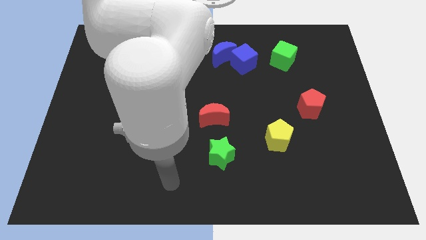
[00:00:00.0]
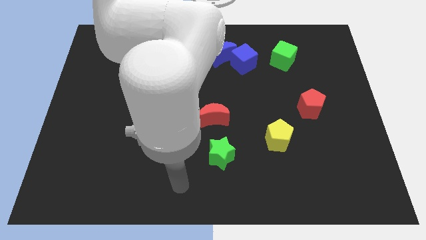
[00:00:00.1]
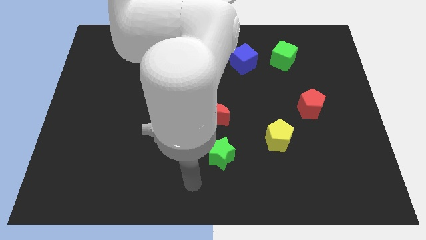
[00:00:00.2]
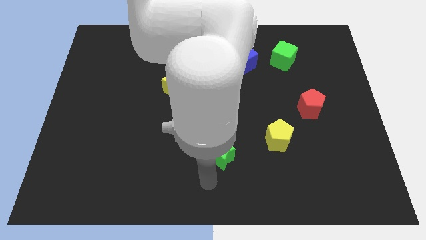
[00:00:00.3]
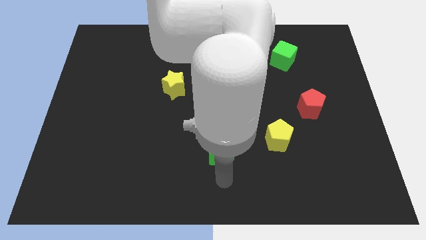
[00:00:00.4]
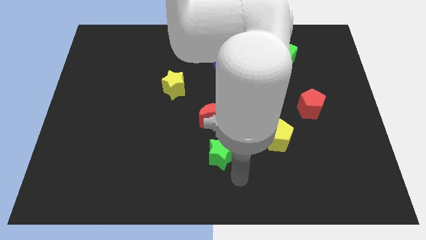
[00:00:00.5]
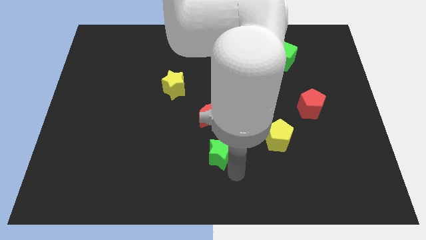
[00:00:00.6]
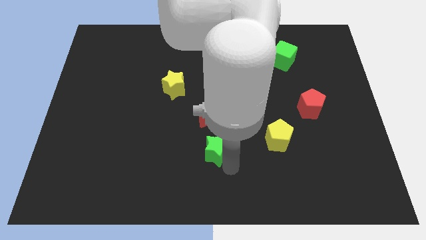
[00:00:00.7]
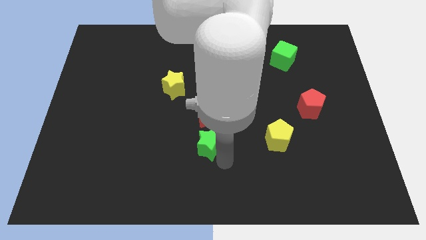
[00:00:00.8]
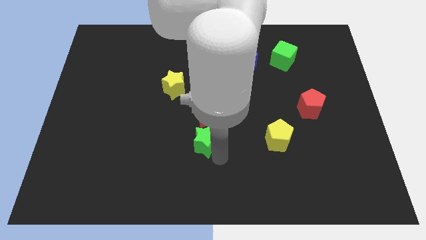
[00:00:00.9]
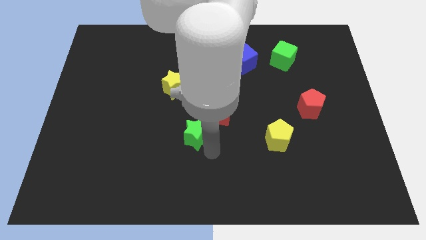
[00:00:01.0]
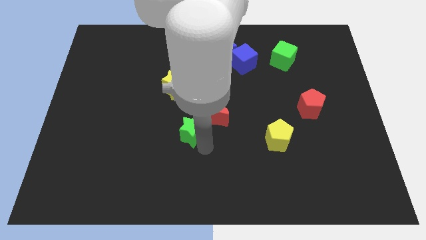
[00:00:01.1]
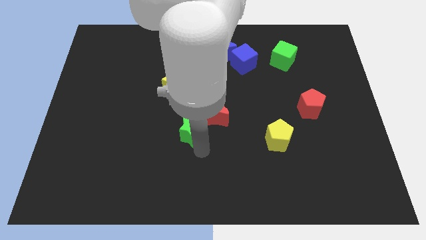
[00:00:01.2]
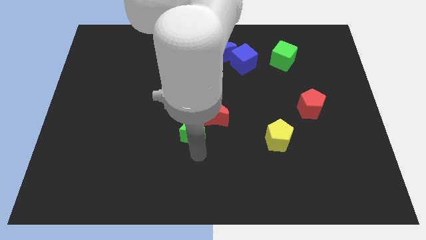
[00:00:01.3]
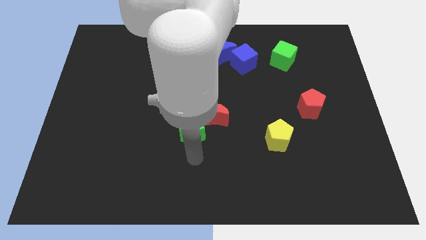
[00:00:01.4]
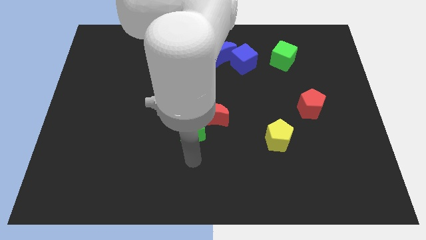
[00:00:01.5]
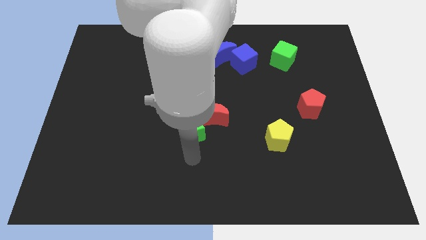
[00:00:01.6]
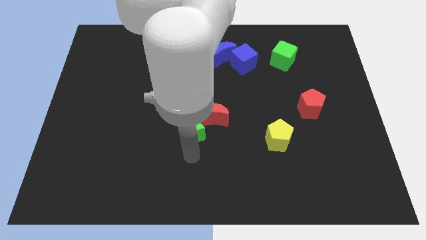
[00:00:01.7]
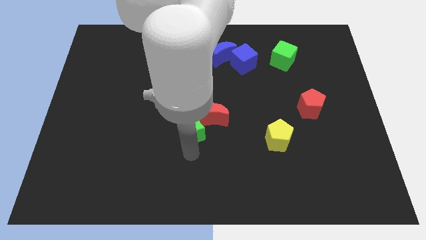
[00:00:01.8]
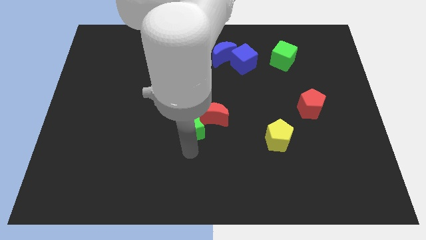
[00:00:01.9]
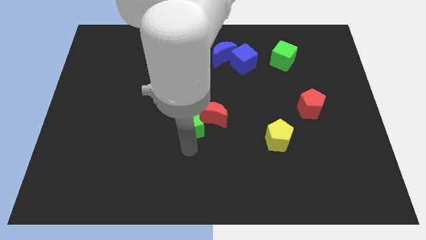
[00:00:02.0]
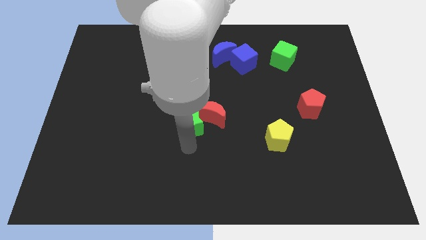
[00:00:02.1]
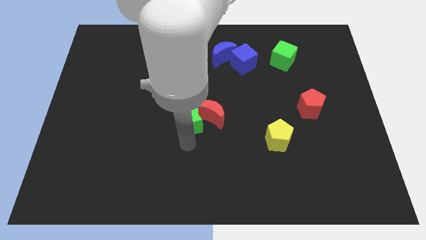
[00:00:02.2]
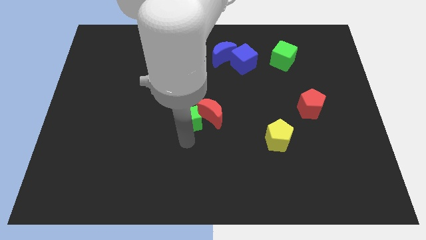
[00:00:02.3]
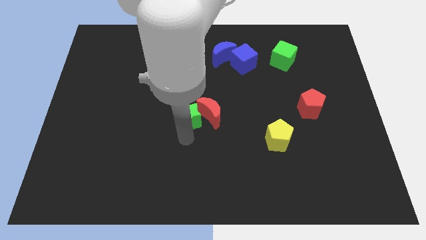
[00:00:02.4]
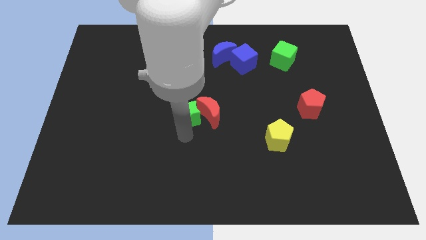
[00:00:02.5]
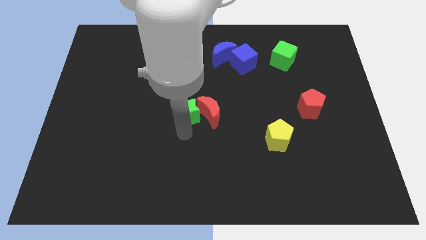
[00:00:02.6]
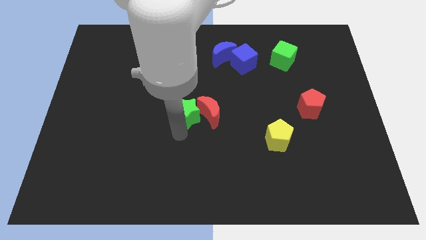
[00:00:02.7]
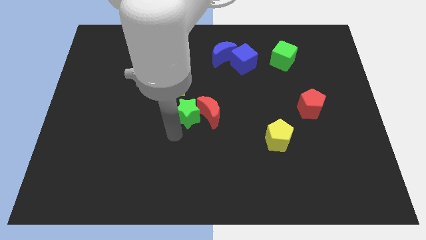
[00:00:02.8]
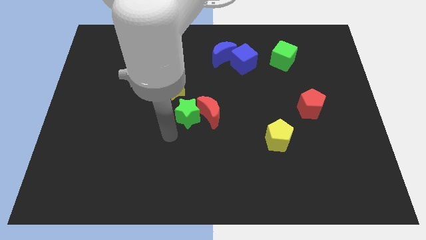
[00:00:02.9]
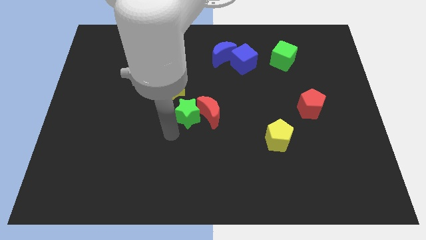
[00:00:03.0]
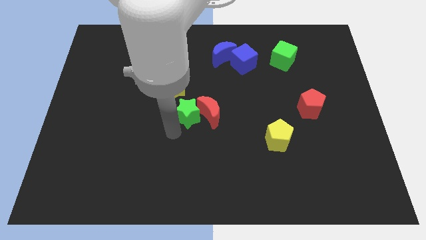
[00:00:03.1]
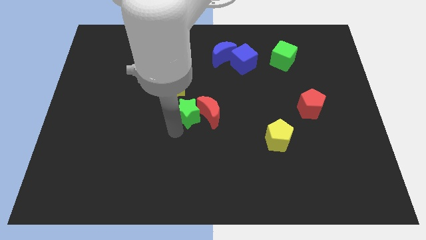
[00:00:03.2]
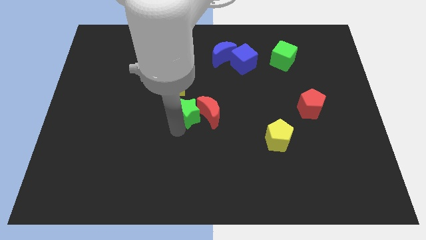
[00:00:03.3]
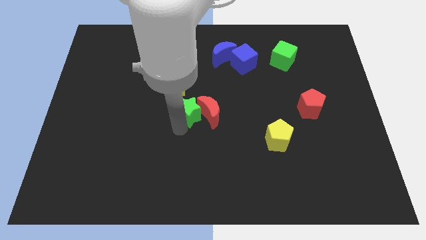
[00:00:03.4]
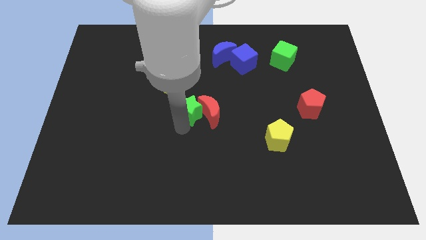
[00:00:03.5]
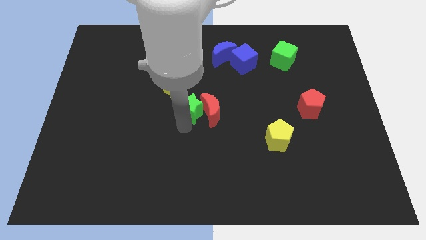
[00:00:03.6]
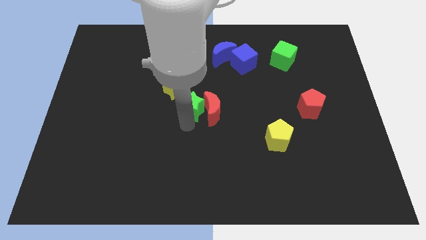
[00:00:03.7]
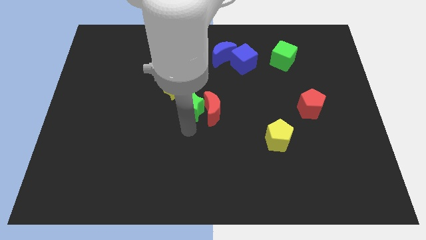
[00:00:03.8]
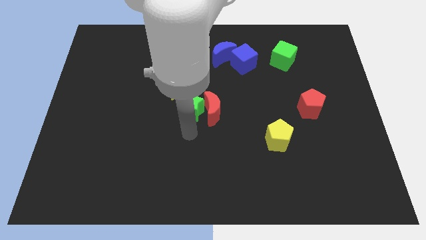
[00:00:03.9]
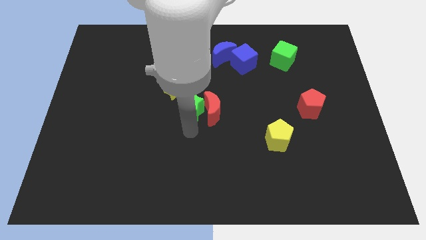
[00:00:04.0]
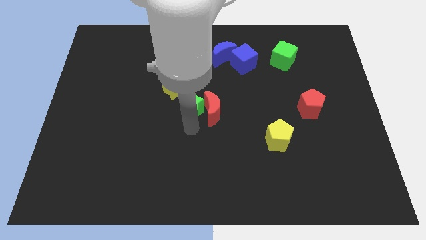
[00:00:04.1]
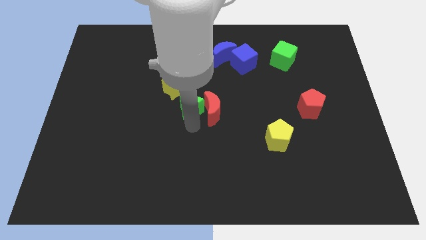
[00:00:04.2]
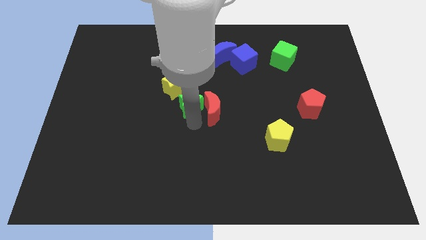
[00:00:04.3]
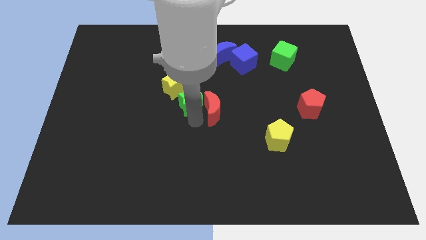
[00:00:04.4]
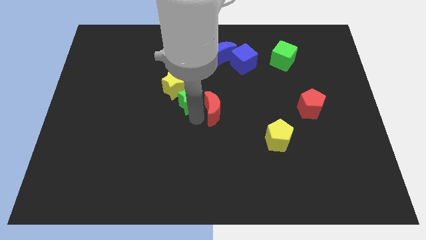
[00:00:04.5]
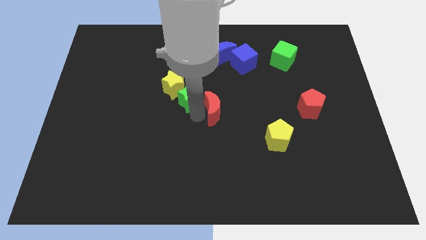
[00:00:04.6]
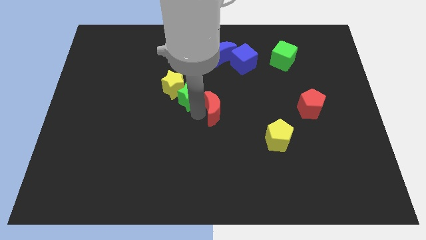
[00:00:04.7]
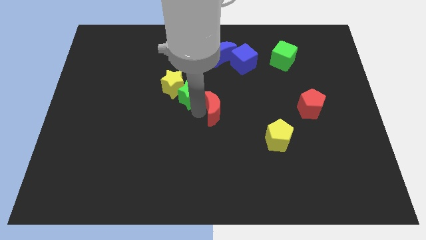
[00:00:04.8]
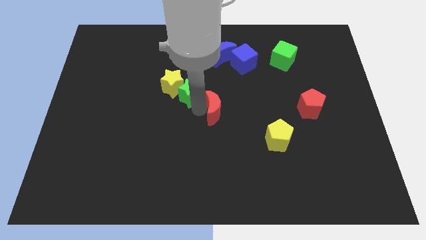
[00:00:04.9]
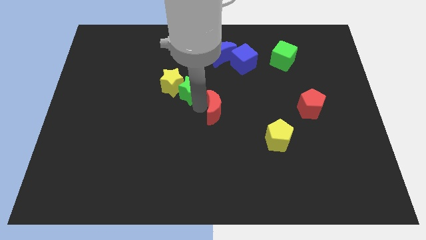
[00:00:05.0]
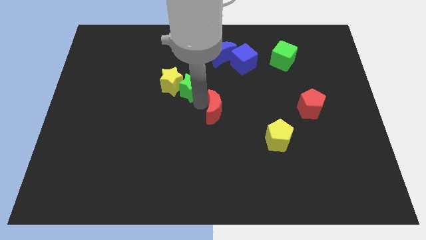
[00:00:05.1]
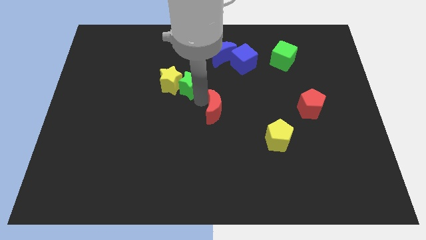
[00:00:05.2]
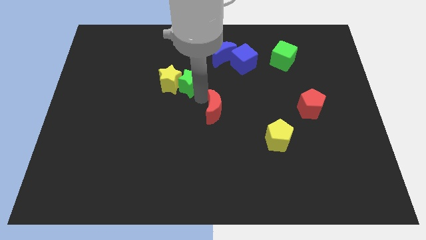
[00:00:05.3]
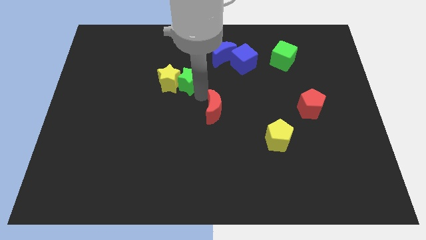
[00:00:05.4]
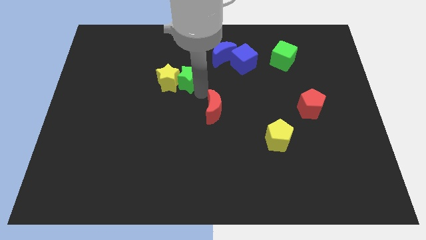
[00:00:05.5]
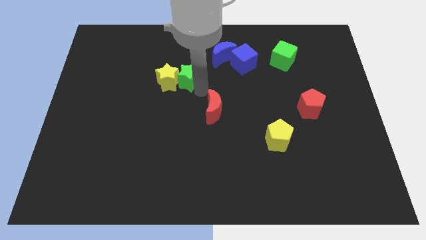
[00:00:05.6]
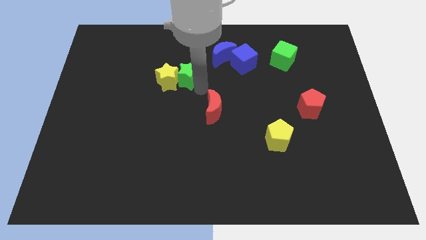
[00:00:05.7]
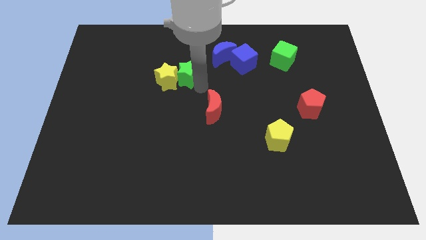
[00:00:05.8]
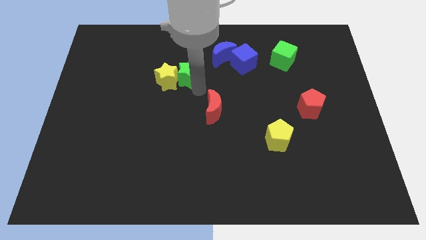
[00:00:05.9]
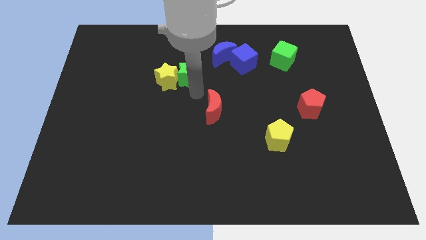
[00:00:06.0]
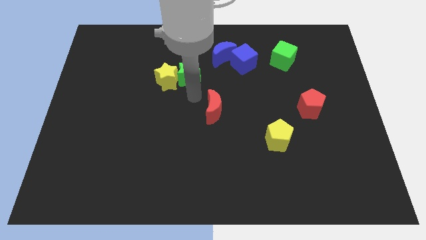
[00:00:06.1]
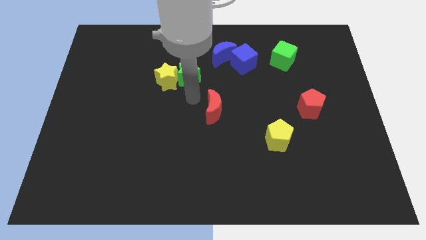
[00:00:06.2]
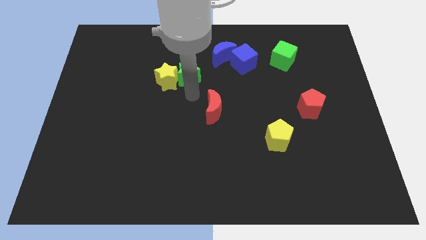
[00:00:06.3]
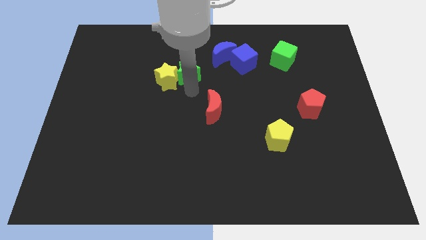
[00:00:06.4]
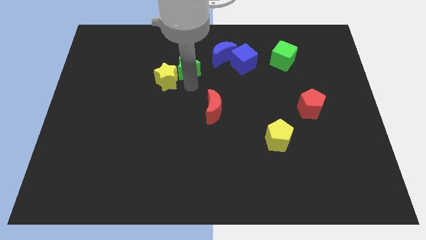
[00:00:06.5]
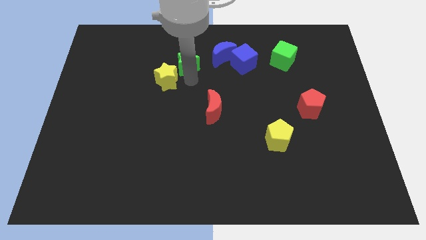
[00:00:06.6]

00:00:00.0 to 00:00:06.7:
move the green star to the left of the blue moon
